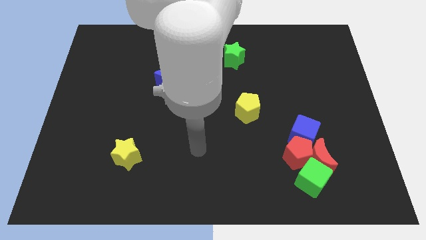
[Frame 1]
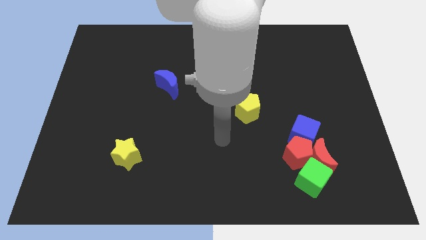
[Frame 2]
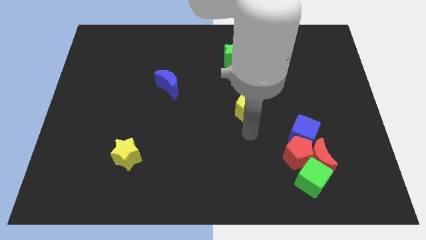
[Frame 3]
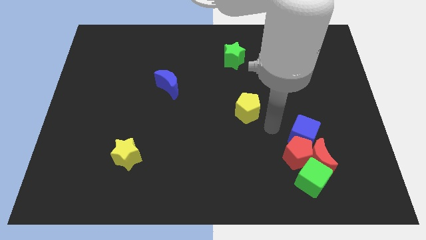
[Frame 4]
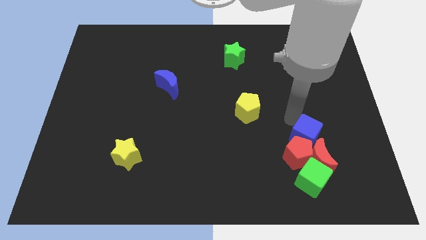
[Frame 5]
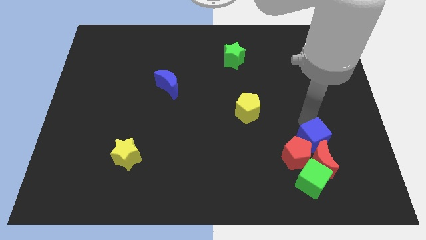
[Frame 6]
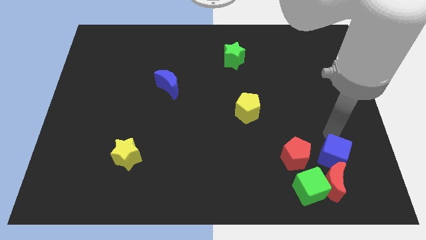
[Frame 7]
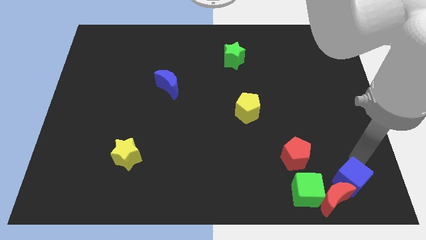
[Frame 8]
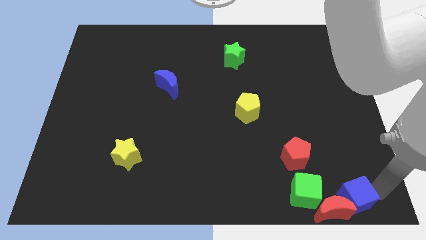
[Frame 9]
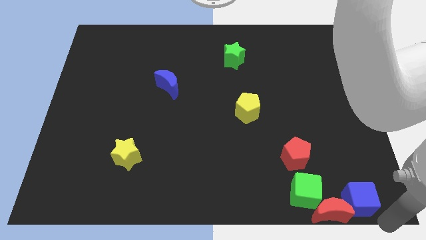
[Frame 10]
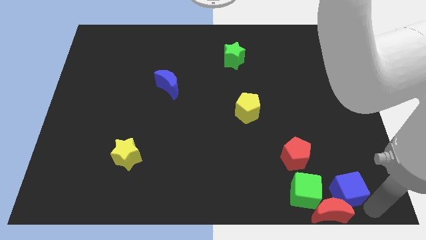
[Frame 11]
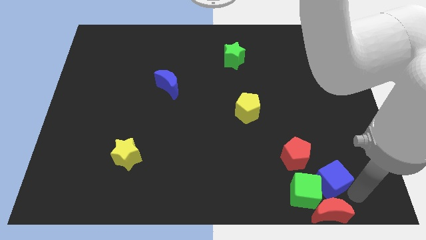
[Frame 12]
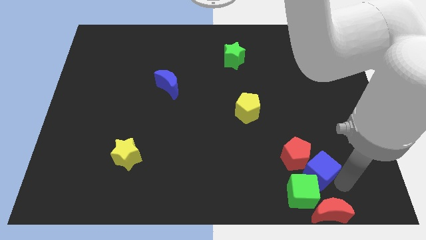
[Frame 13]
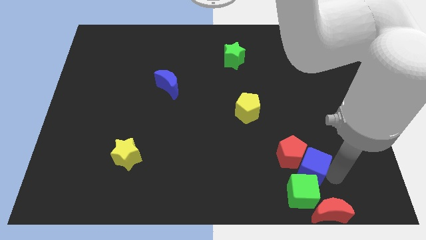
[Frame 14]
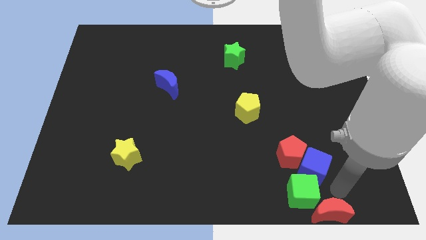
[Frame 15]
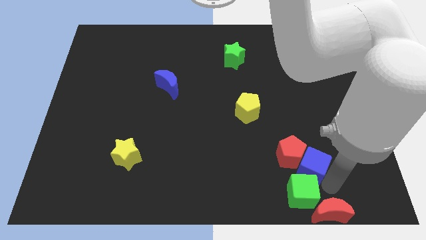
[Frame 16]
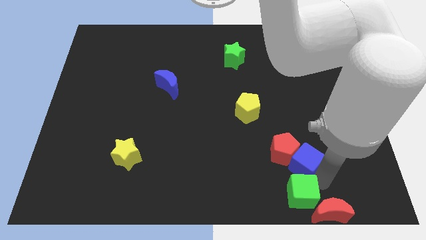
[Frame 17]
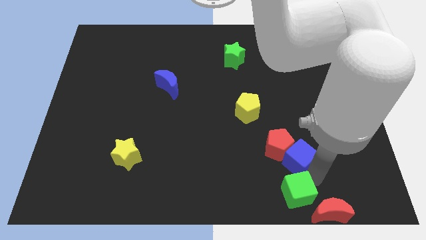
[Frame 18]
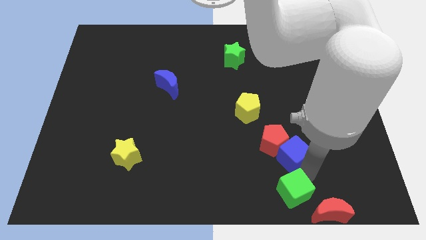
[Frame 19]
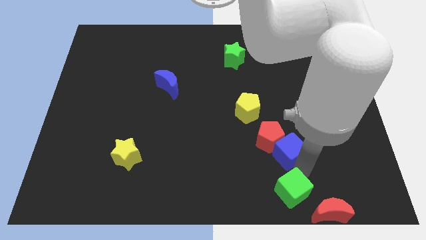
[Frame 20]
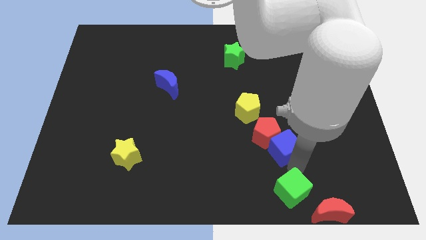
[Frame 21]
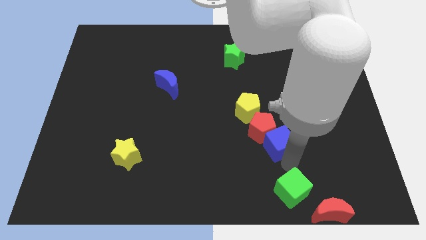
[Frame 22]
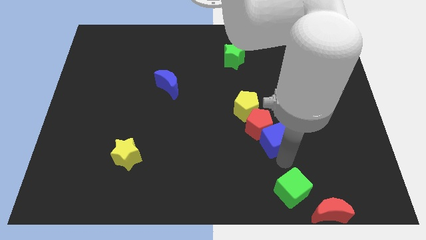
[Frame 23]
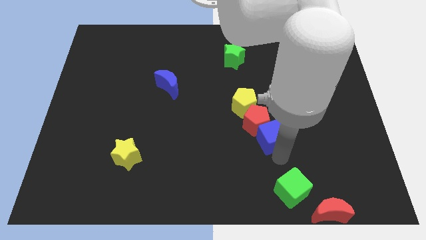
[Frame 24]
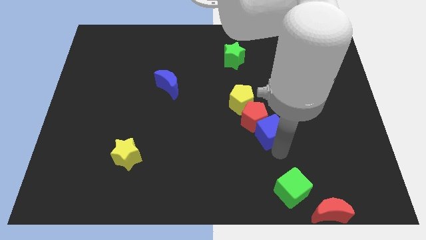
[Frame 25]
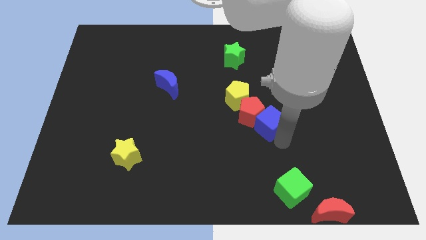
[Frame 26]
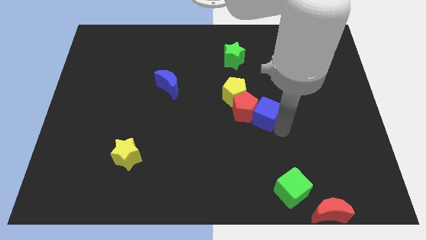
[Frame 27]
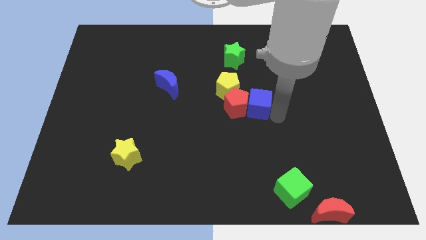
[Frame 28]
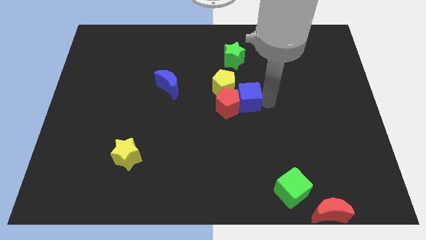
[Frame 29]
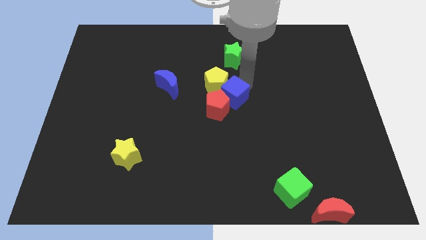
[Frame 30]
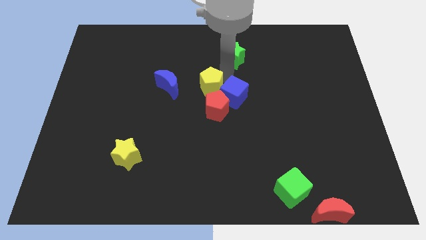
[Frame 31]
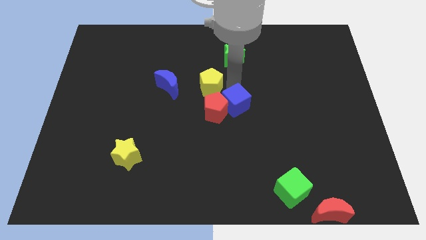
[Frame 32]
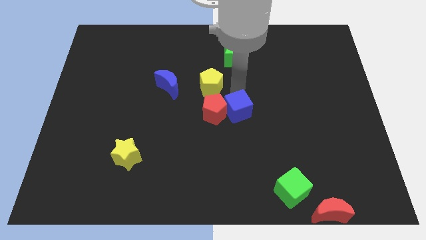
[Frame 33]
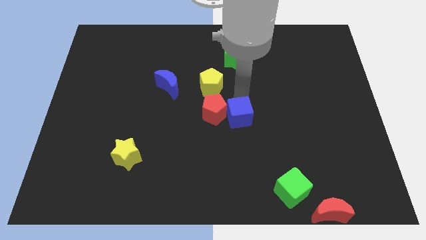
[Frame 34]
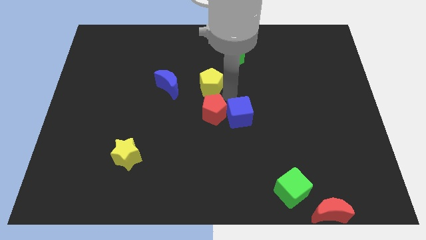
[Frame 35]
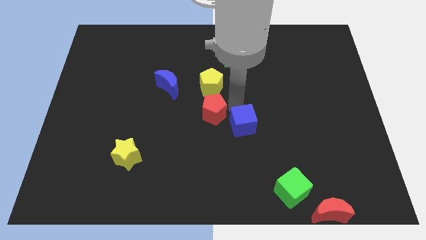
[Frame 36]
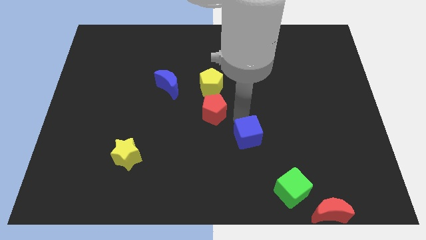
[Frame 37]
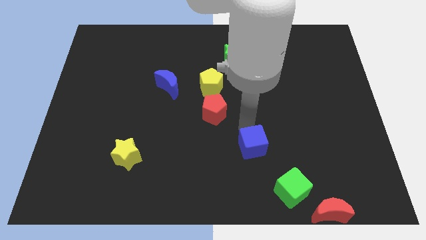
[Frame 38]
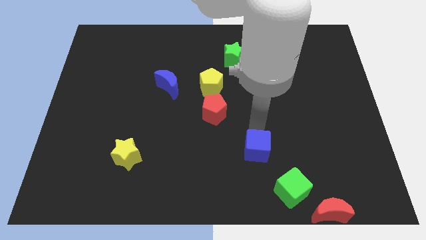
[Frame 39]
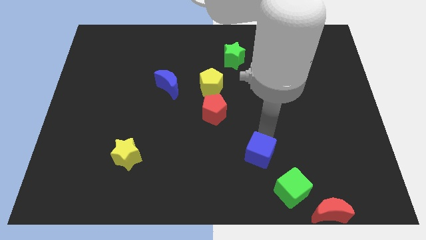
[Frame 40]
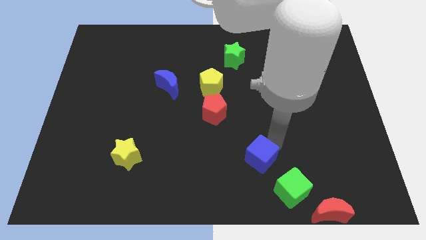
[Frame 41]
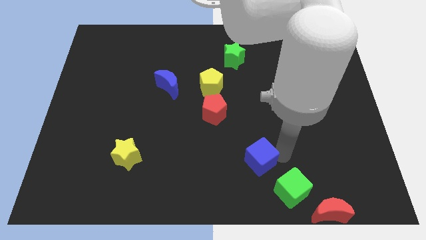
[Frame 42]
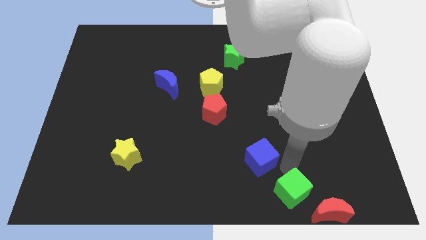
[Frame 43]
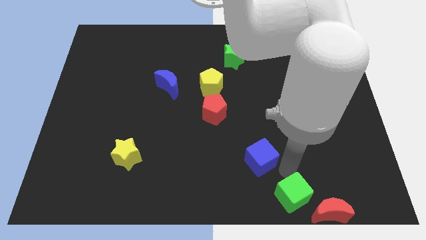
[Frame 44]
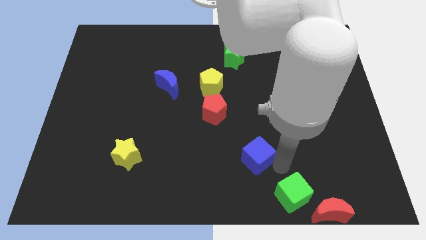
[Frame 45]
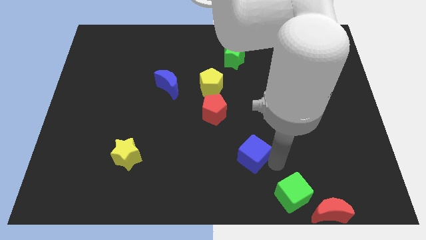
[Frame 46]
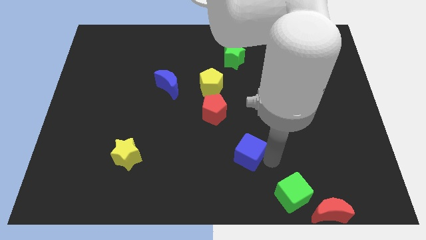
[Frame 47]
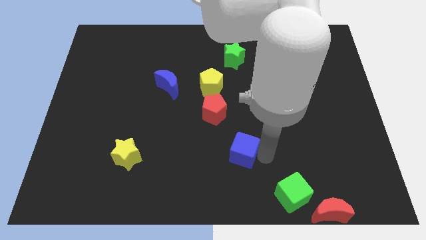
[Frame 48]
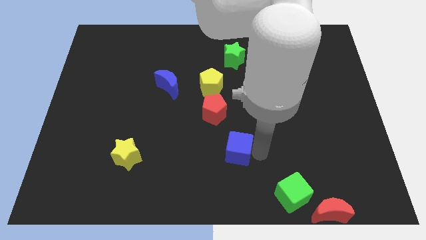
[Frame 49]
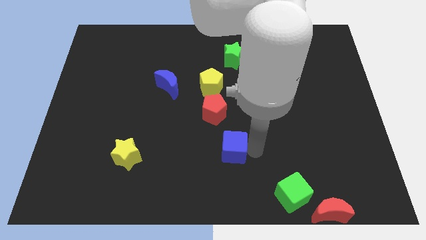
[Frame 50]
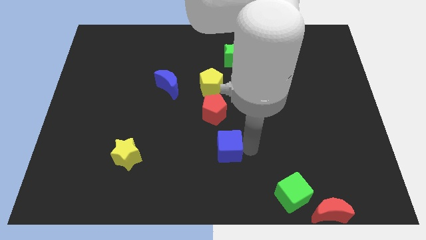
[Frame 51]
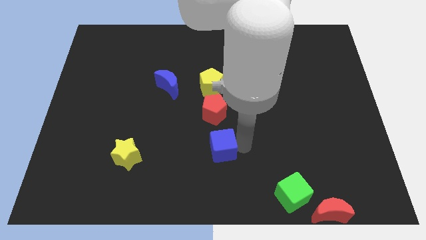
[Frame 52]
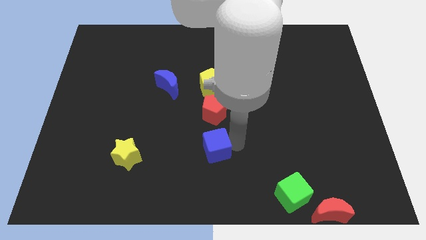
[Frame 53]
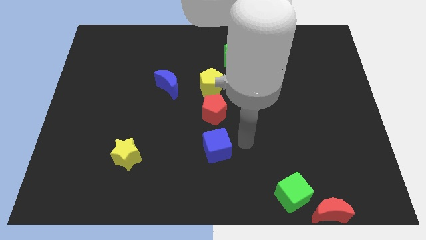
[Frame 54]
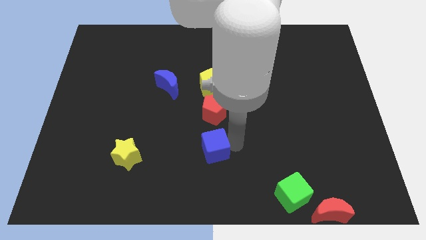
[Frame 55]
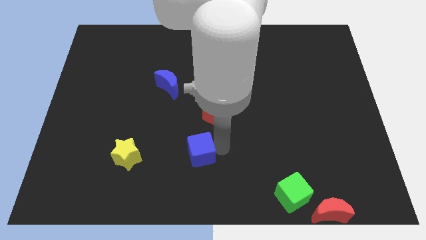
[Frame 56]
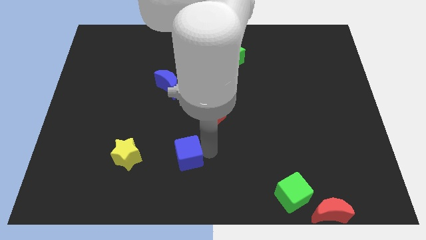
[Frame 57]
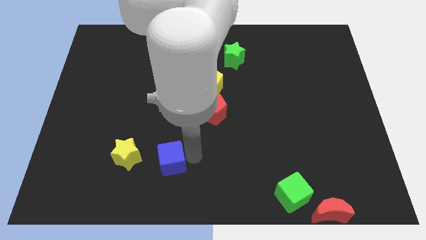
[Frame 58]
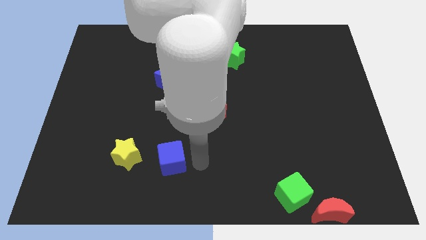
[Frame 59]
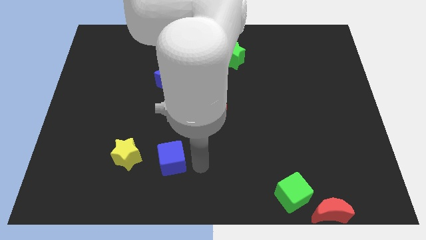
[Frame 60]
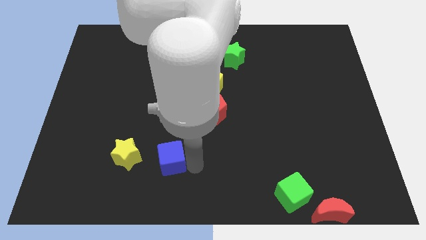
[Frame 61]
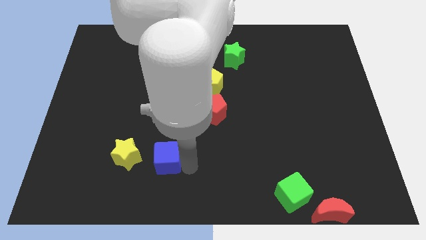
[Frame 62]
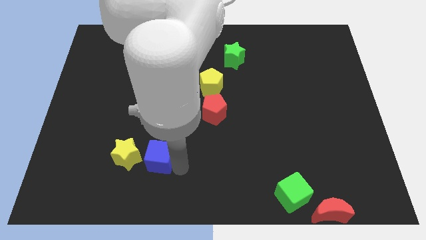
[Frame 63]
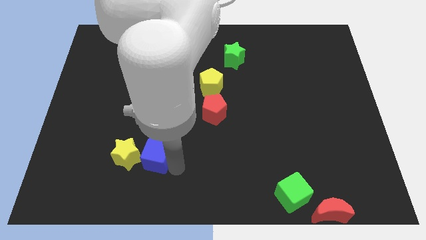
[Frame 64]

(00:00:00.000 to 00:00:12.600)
push the blue cube close to the yellow star

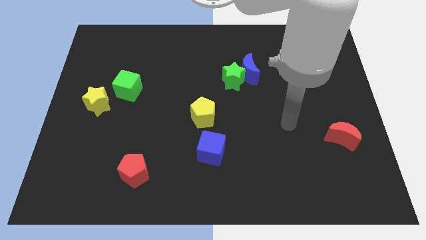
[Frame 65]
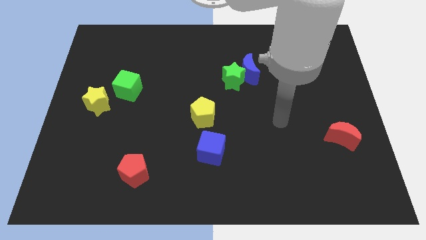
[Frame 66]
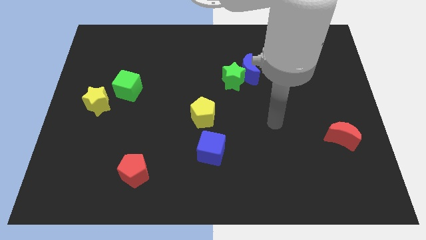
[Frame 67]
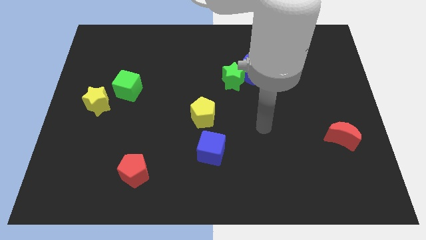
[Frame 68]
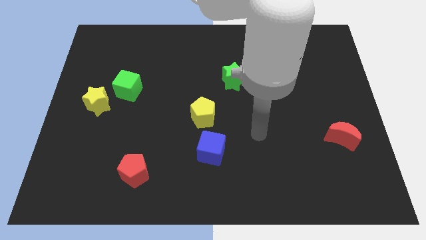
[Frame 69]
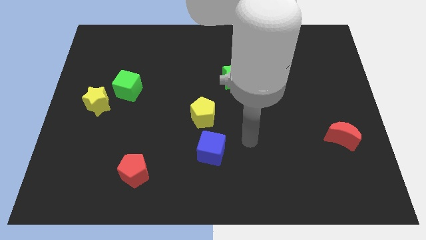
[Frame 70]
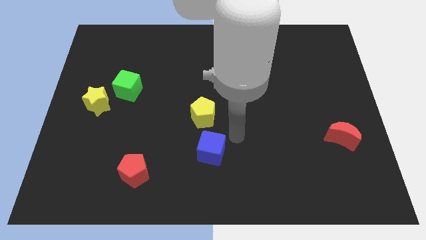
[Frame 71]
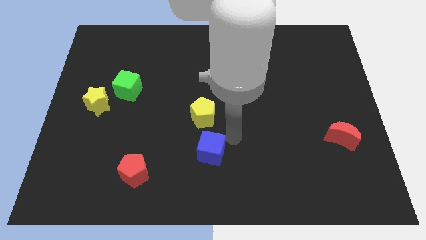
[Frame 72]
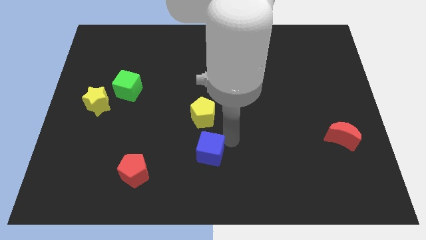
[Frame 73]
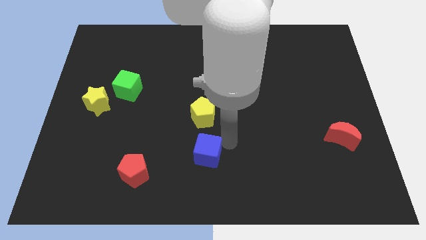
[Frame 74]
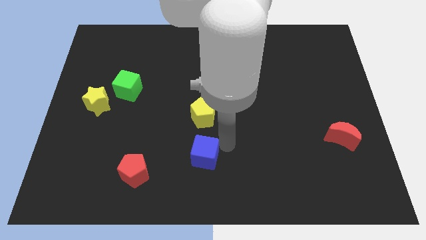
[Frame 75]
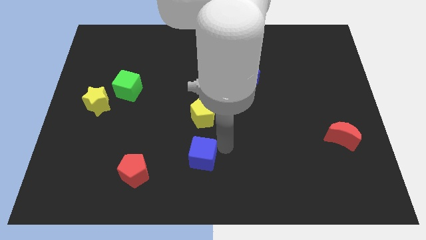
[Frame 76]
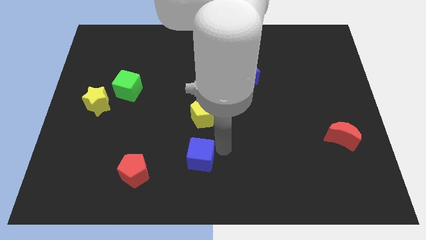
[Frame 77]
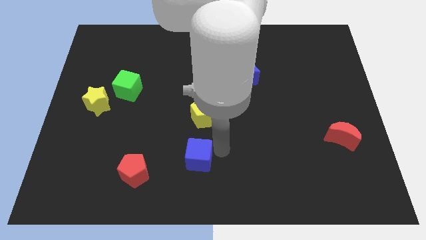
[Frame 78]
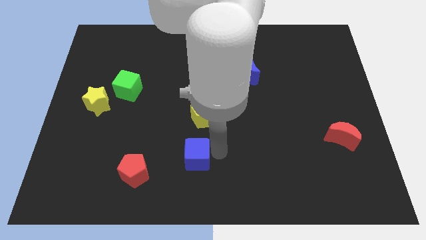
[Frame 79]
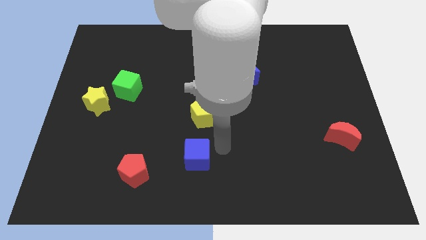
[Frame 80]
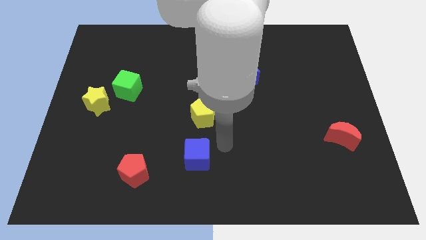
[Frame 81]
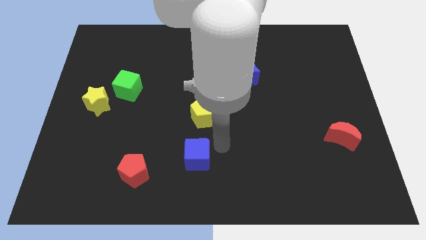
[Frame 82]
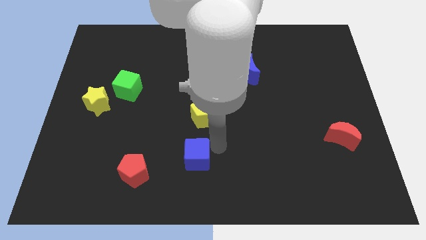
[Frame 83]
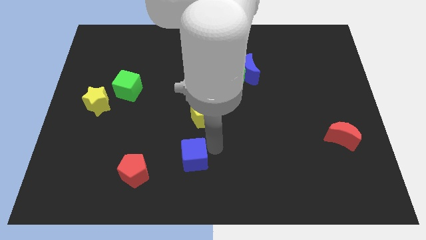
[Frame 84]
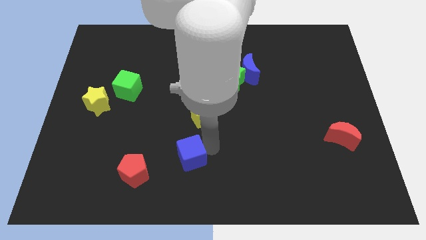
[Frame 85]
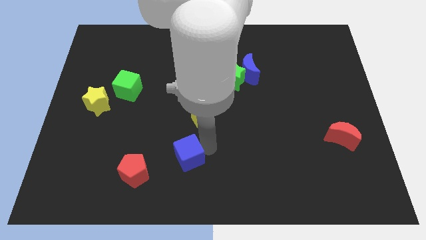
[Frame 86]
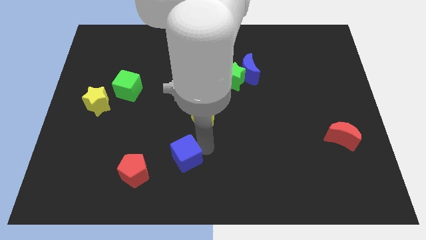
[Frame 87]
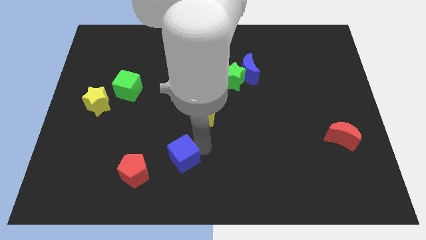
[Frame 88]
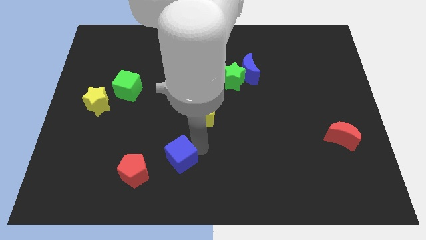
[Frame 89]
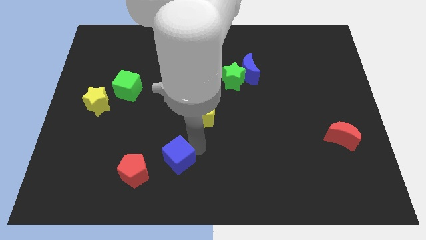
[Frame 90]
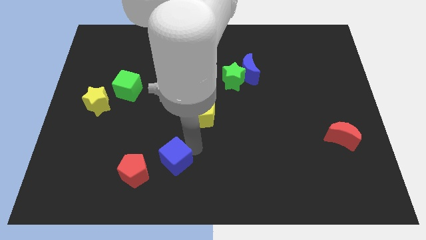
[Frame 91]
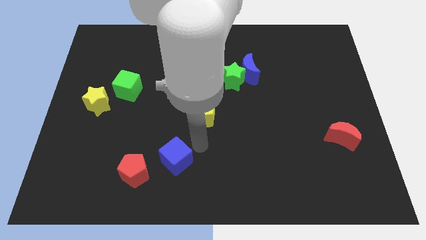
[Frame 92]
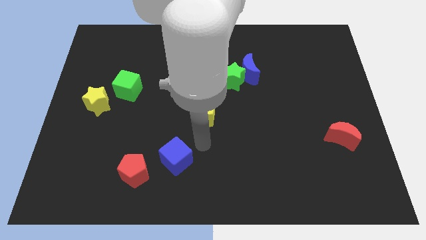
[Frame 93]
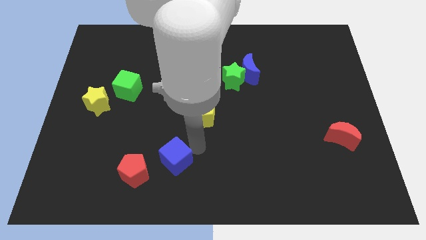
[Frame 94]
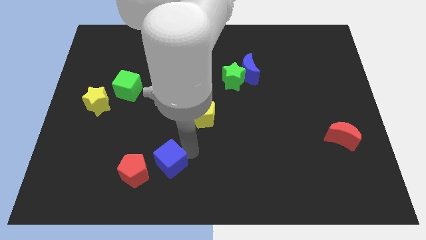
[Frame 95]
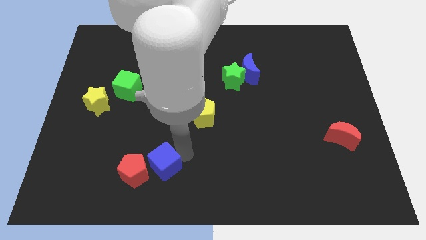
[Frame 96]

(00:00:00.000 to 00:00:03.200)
push the blue cube close to the red pentagon
